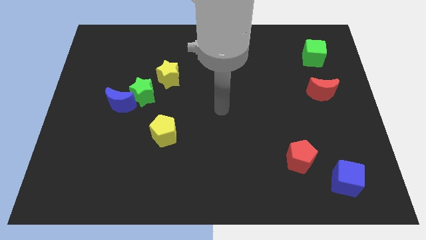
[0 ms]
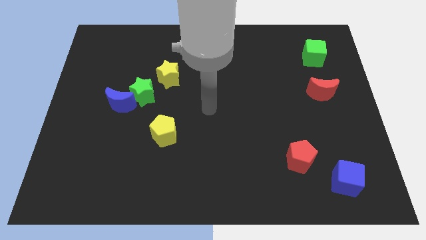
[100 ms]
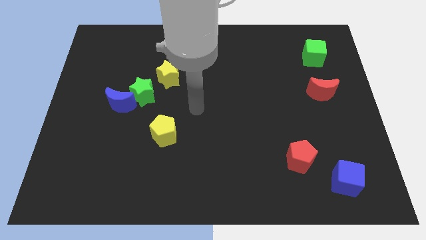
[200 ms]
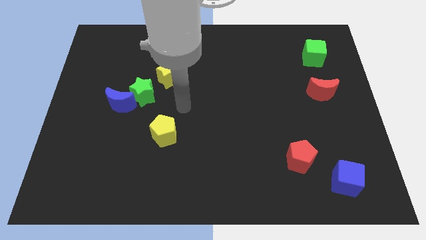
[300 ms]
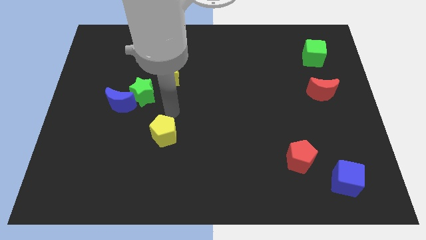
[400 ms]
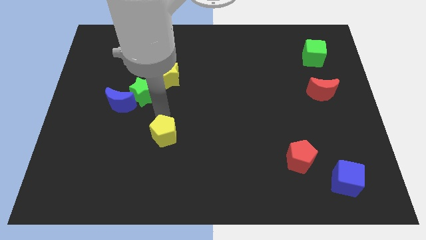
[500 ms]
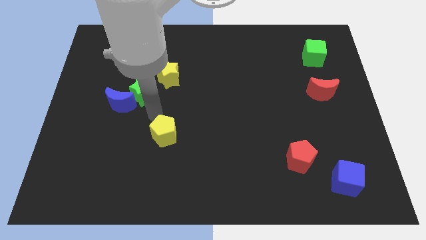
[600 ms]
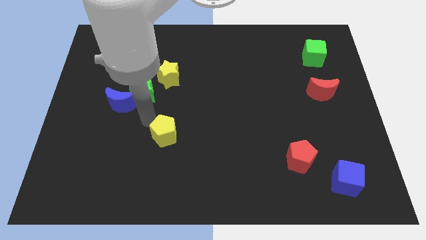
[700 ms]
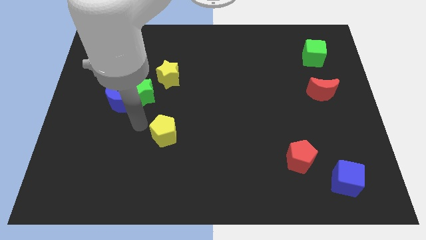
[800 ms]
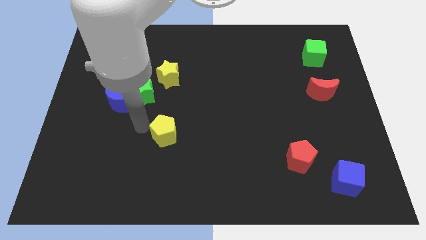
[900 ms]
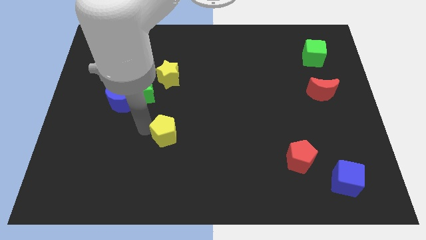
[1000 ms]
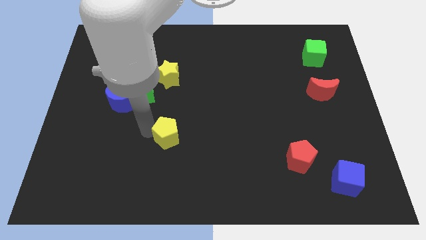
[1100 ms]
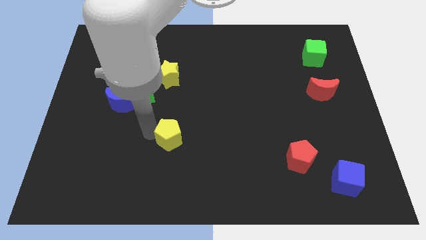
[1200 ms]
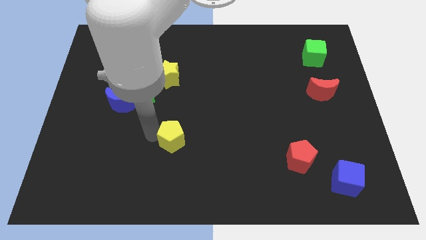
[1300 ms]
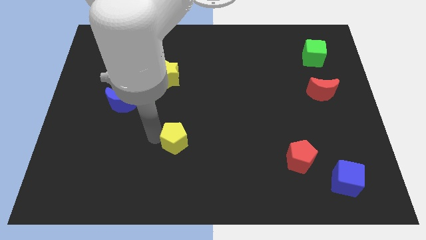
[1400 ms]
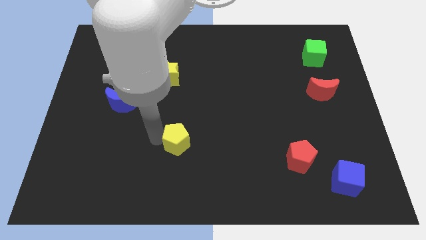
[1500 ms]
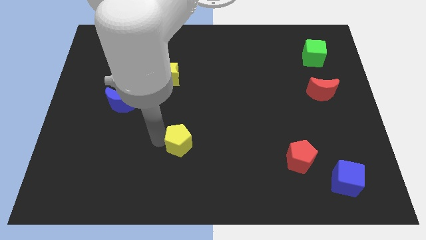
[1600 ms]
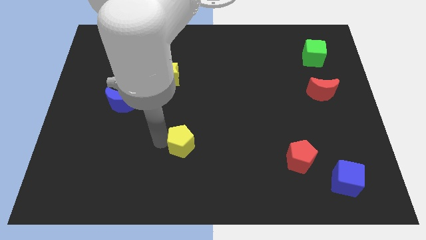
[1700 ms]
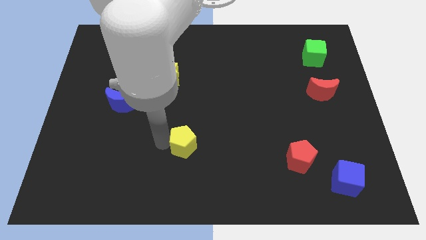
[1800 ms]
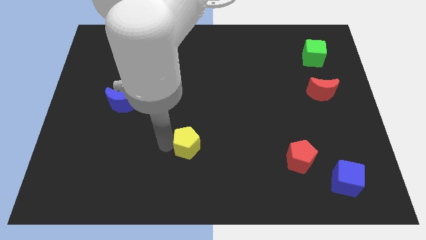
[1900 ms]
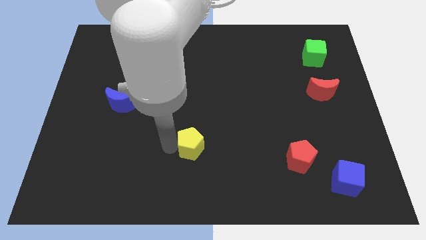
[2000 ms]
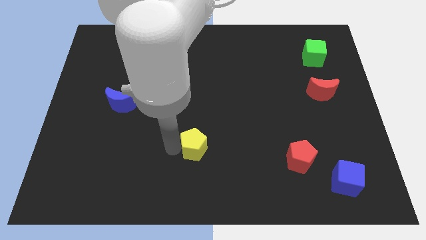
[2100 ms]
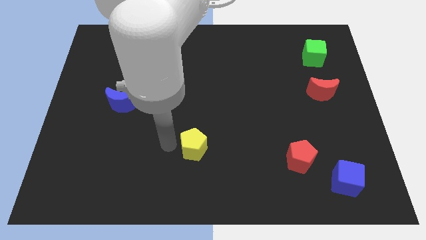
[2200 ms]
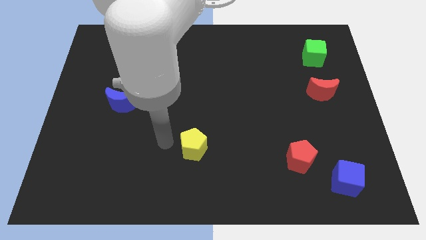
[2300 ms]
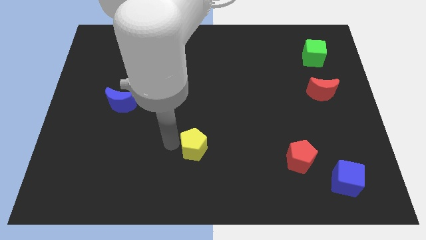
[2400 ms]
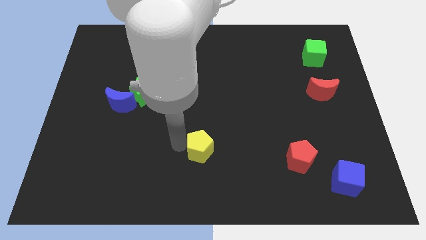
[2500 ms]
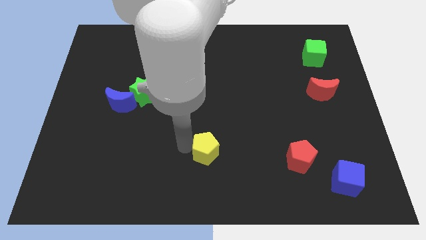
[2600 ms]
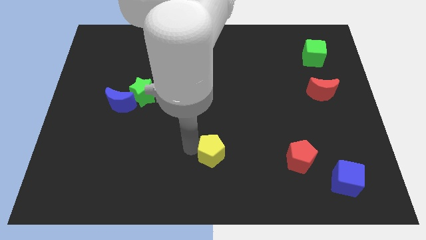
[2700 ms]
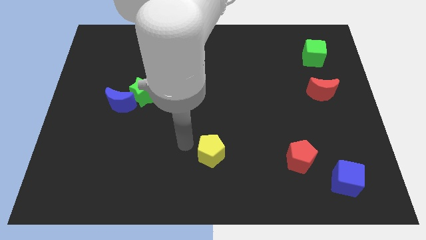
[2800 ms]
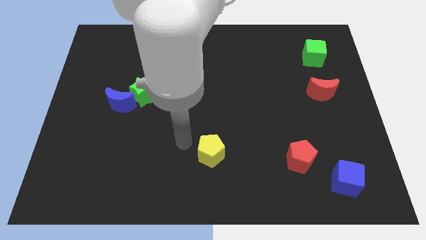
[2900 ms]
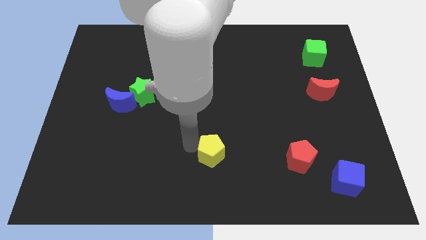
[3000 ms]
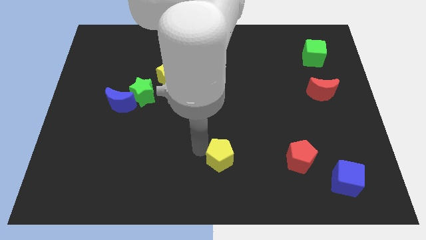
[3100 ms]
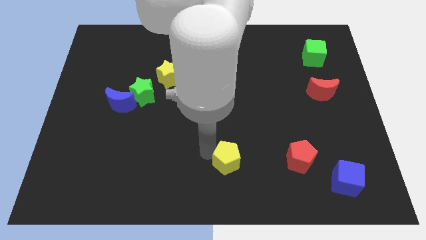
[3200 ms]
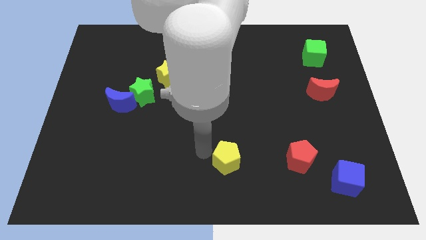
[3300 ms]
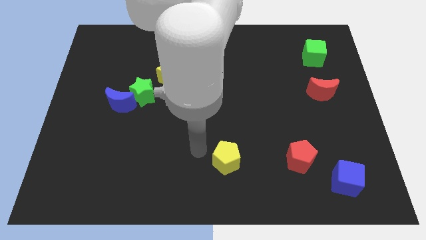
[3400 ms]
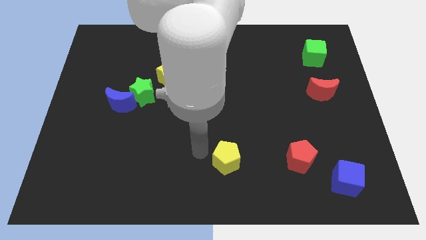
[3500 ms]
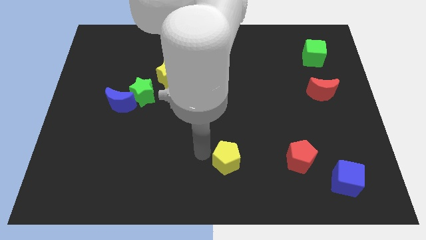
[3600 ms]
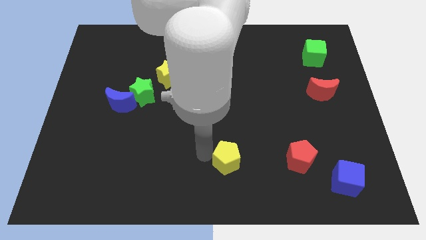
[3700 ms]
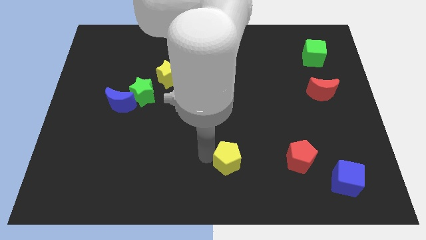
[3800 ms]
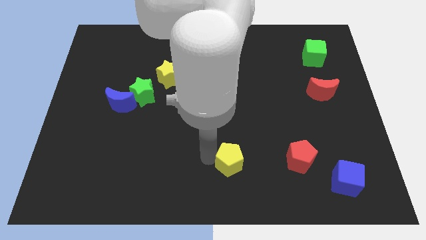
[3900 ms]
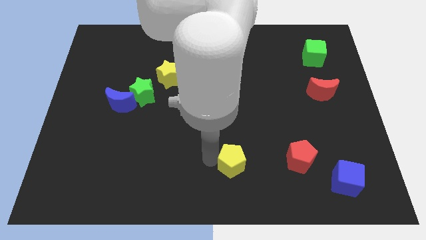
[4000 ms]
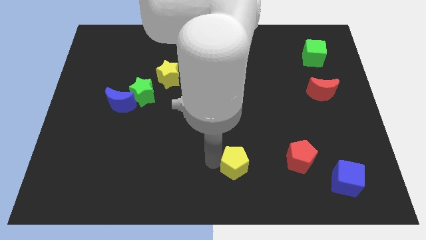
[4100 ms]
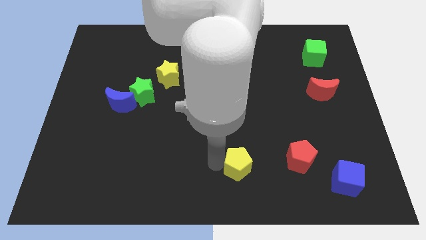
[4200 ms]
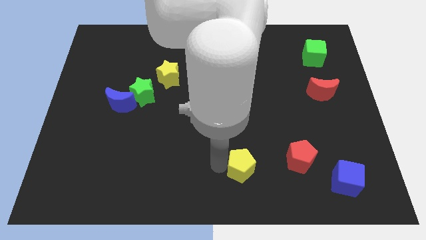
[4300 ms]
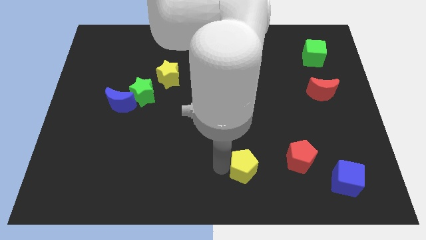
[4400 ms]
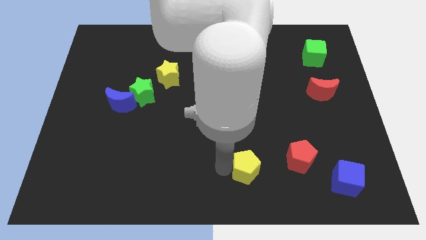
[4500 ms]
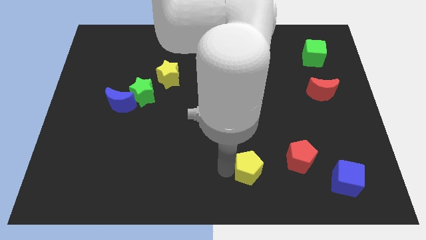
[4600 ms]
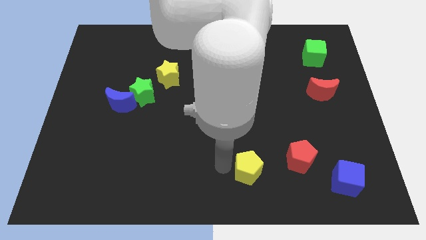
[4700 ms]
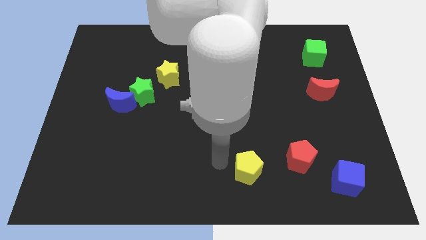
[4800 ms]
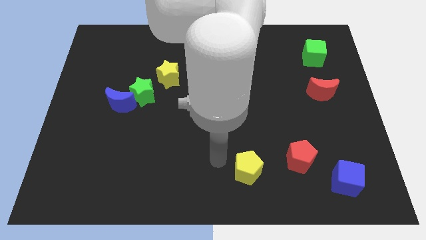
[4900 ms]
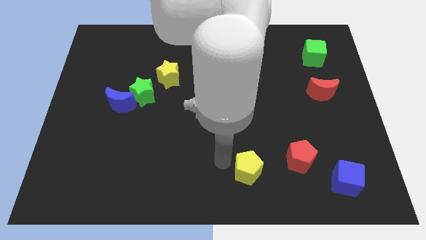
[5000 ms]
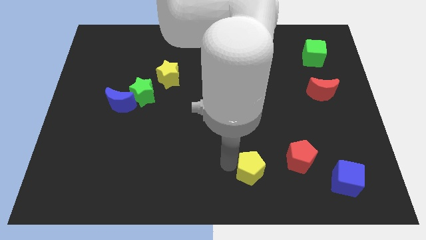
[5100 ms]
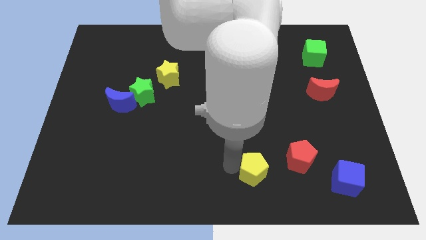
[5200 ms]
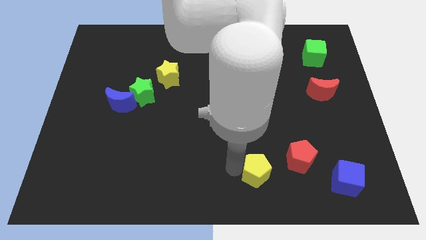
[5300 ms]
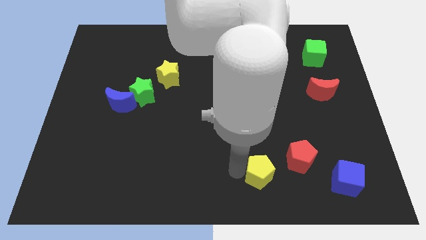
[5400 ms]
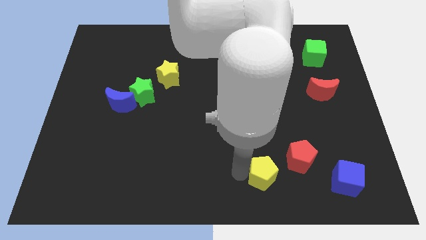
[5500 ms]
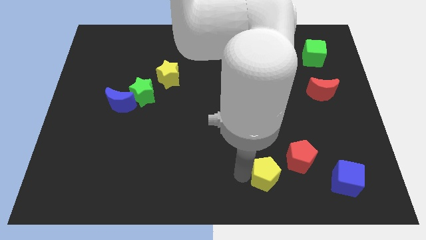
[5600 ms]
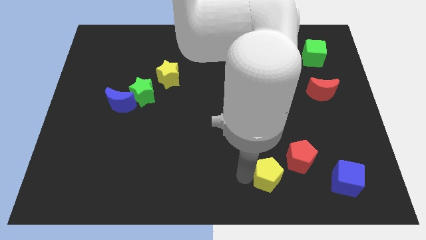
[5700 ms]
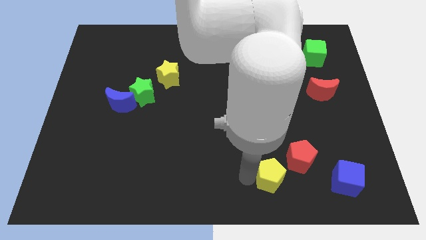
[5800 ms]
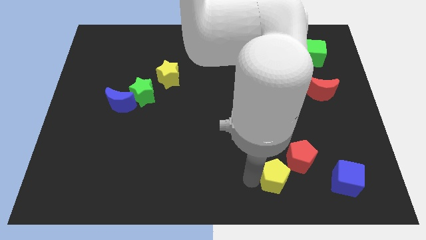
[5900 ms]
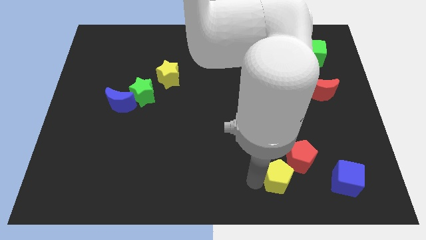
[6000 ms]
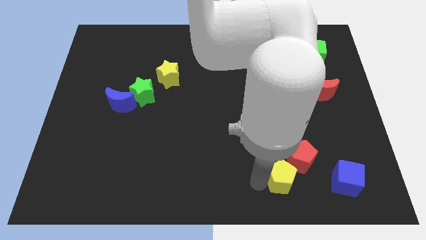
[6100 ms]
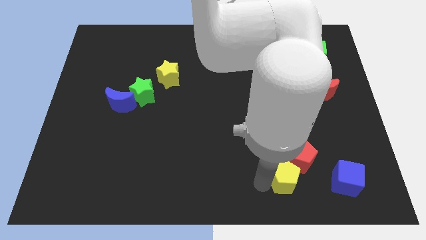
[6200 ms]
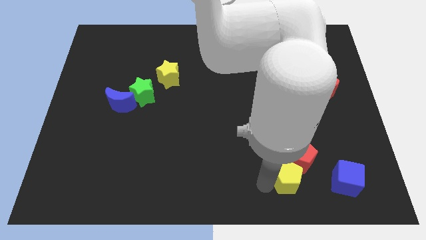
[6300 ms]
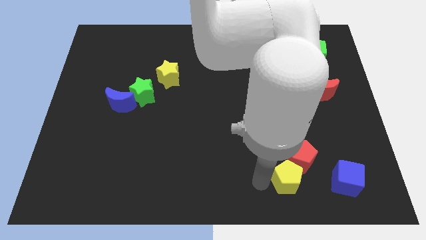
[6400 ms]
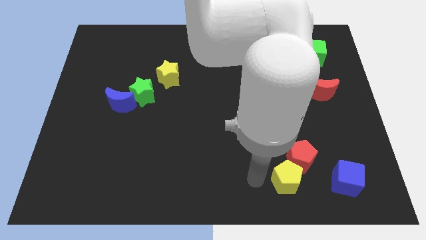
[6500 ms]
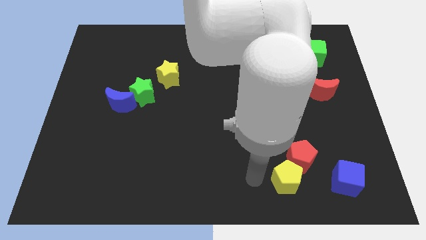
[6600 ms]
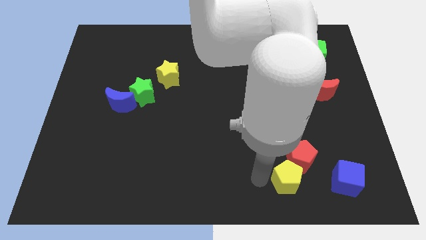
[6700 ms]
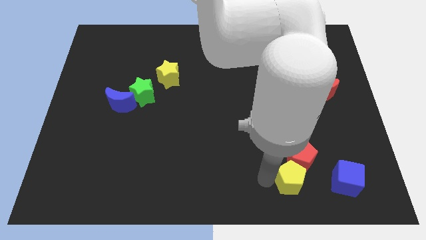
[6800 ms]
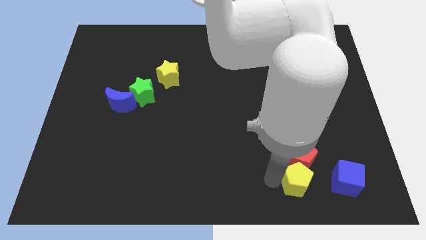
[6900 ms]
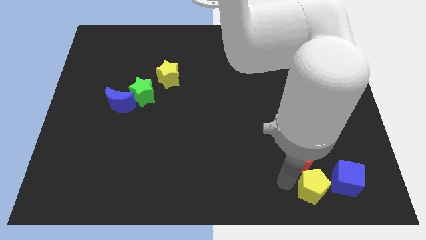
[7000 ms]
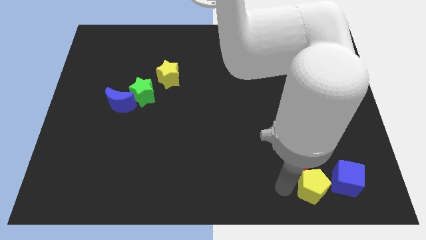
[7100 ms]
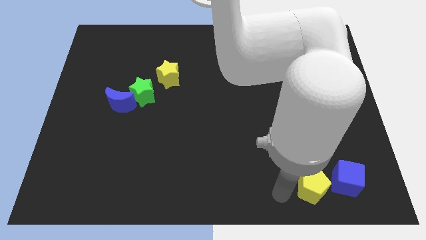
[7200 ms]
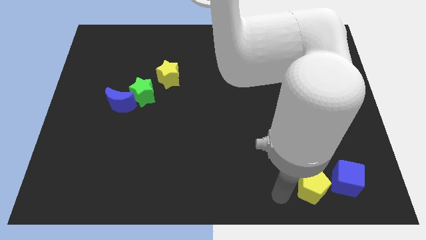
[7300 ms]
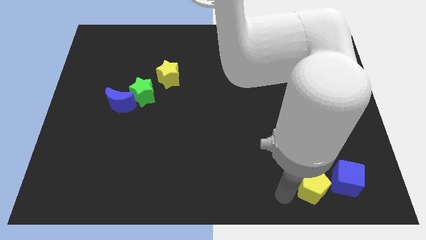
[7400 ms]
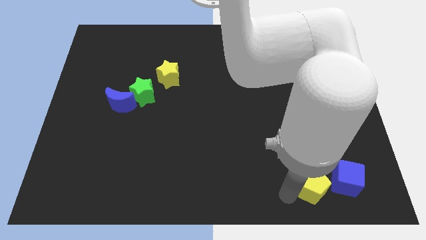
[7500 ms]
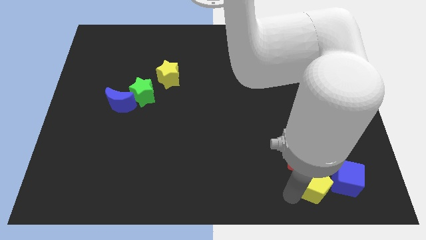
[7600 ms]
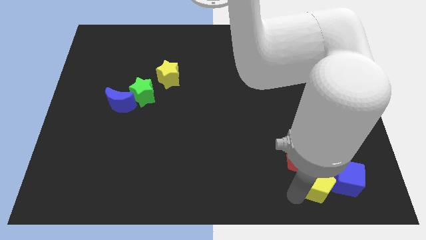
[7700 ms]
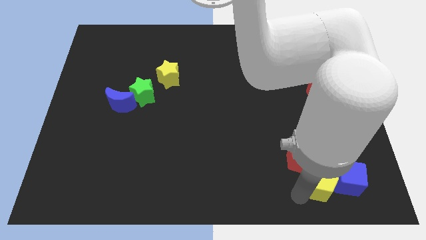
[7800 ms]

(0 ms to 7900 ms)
push the yellow pentagon close to the blue cube
